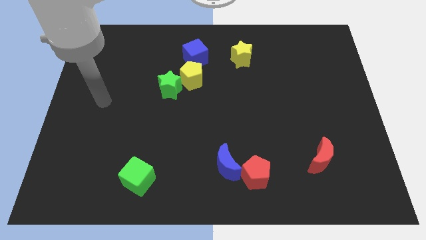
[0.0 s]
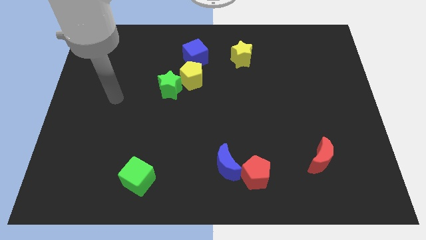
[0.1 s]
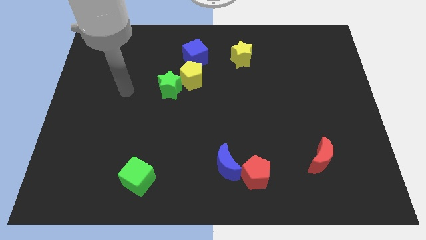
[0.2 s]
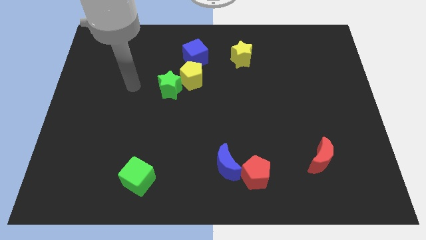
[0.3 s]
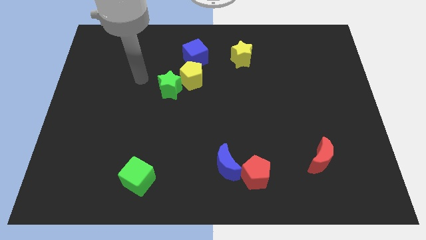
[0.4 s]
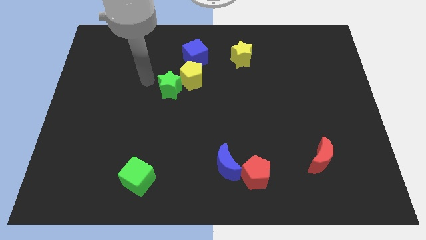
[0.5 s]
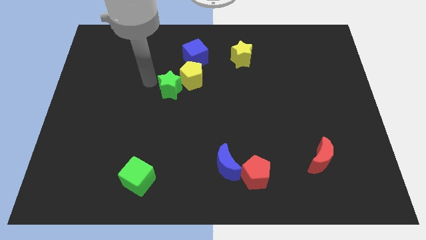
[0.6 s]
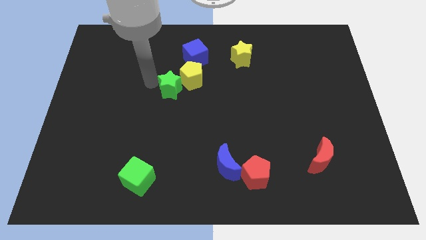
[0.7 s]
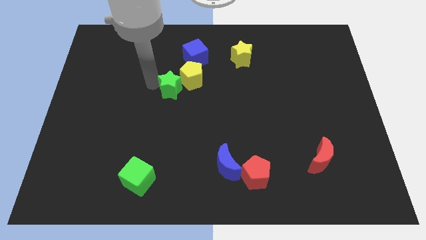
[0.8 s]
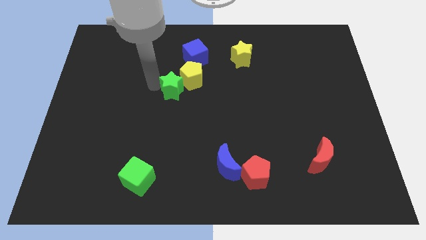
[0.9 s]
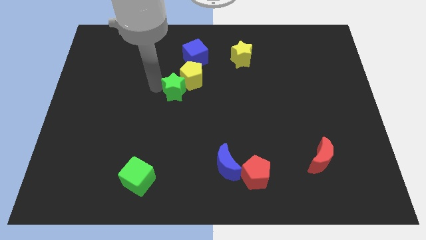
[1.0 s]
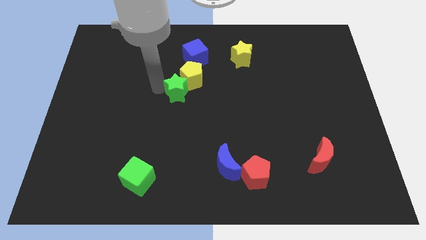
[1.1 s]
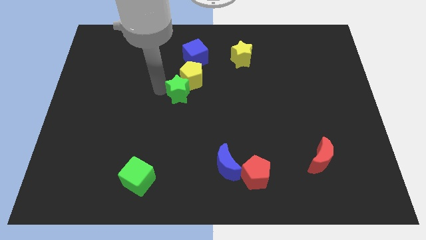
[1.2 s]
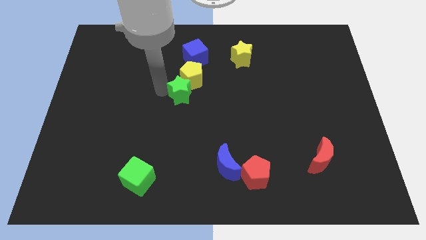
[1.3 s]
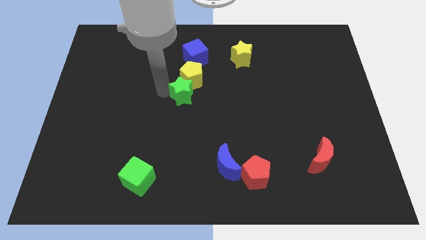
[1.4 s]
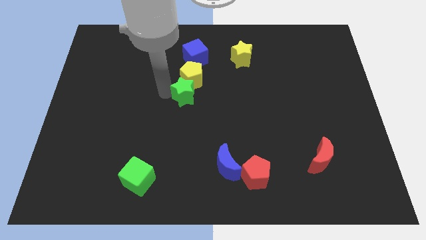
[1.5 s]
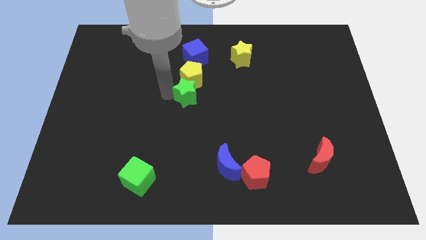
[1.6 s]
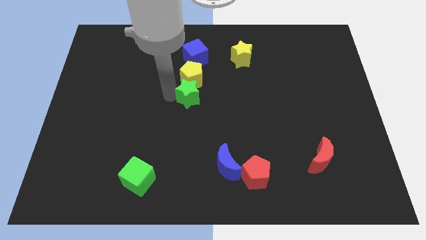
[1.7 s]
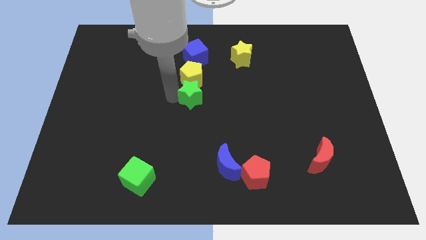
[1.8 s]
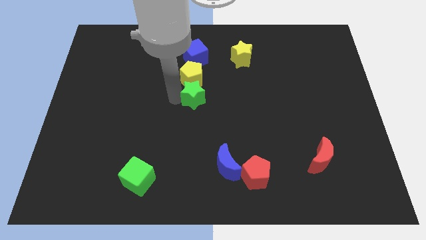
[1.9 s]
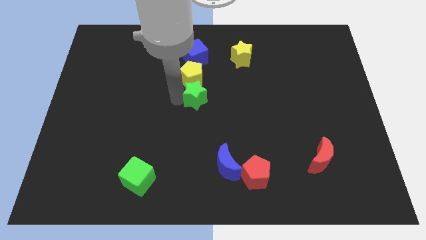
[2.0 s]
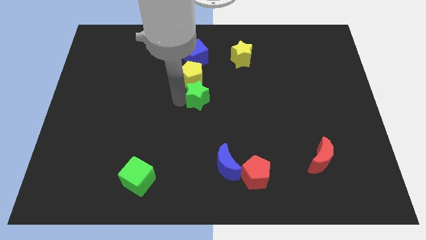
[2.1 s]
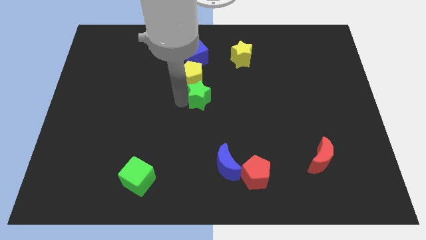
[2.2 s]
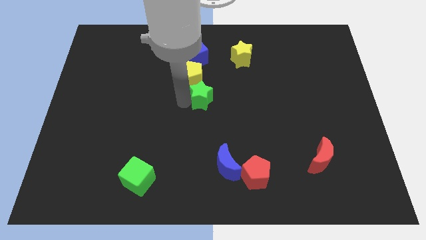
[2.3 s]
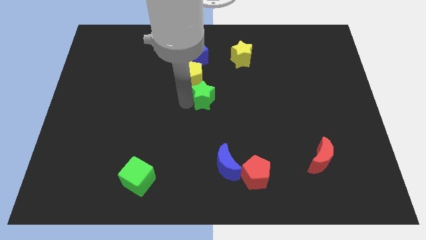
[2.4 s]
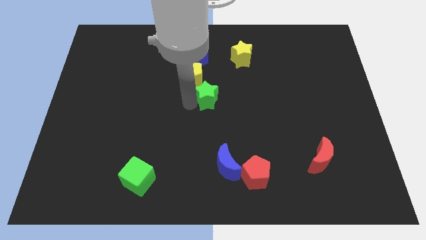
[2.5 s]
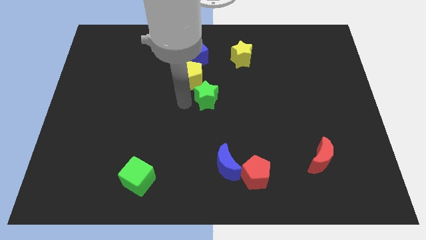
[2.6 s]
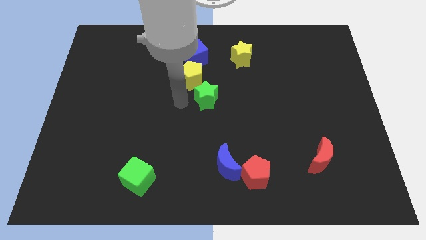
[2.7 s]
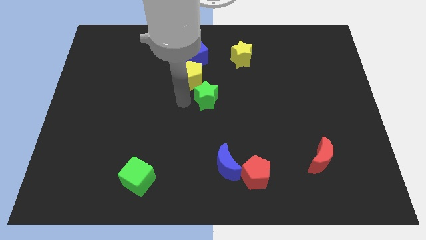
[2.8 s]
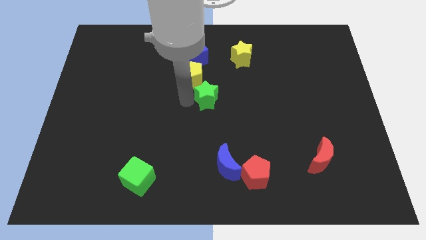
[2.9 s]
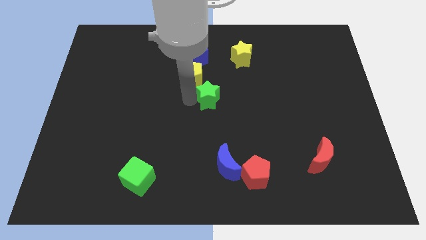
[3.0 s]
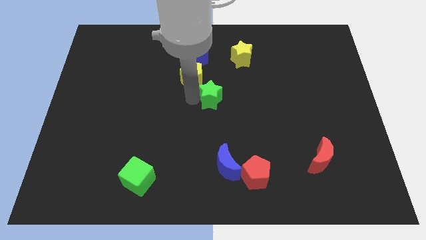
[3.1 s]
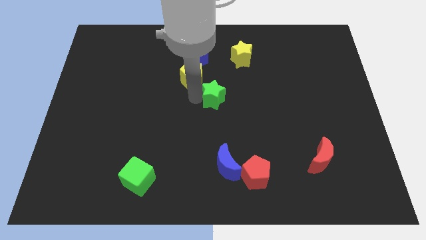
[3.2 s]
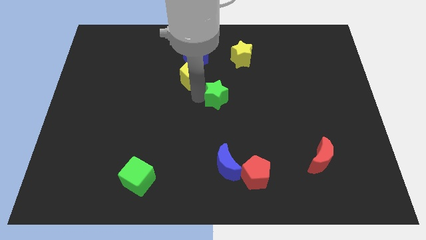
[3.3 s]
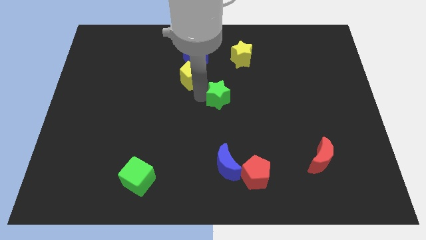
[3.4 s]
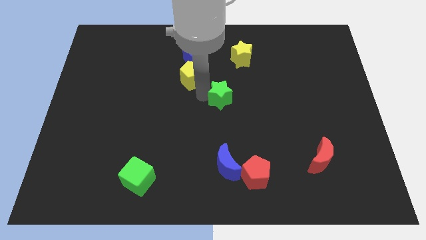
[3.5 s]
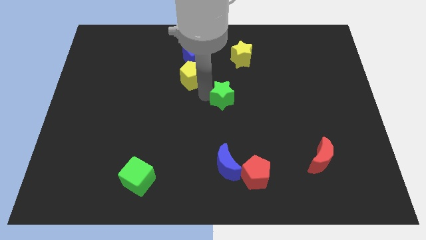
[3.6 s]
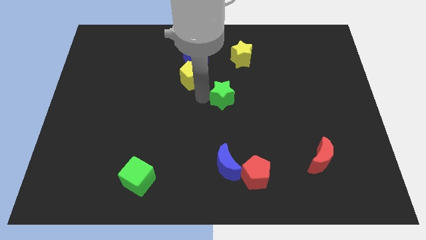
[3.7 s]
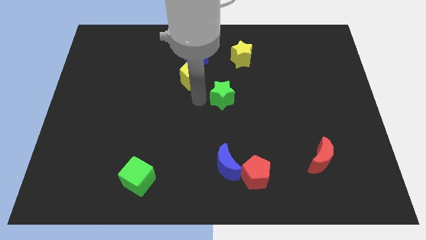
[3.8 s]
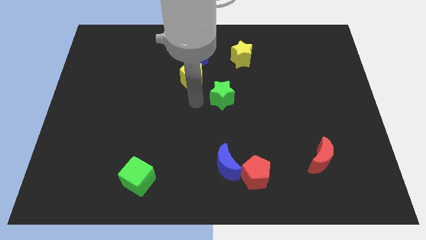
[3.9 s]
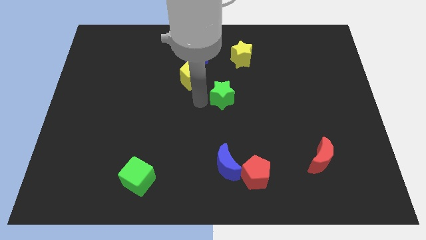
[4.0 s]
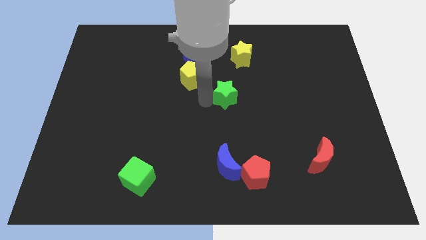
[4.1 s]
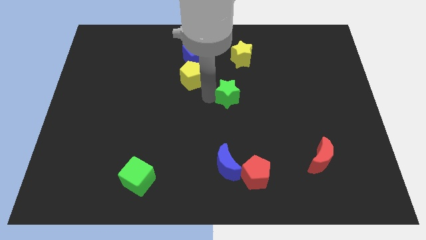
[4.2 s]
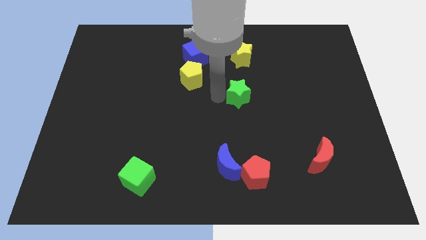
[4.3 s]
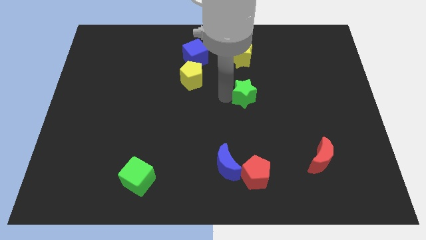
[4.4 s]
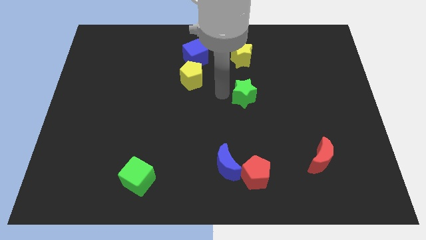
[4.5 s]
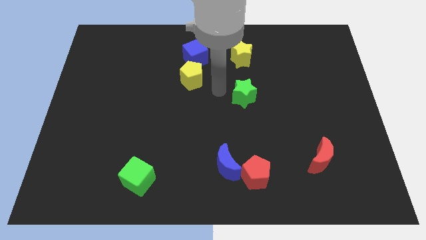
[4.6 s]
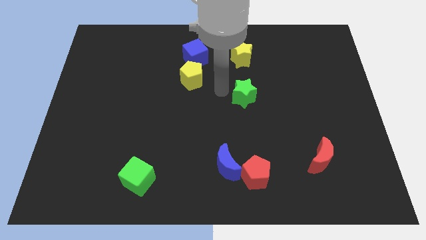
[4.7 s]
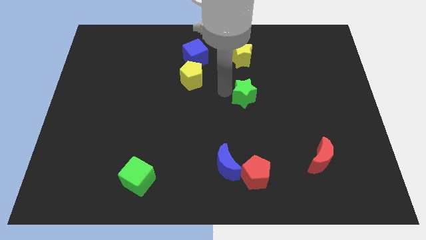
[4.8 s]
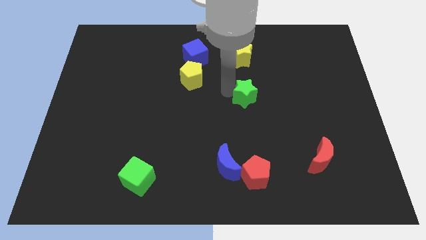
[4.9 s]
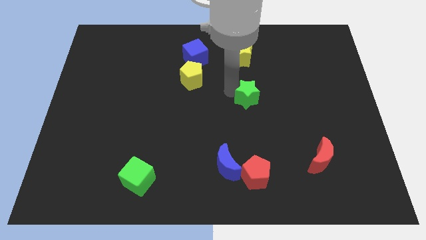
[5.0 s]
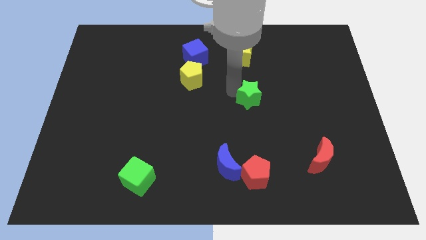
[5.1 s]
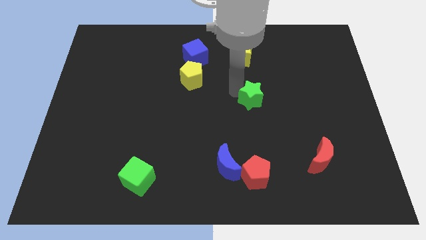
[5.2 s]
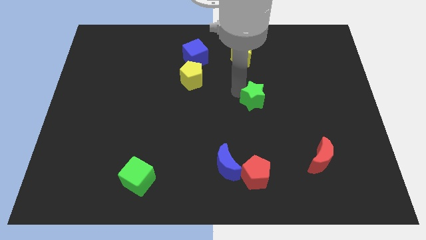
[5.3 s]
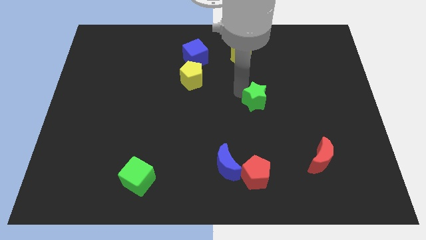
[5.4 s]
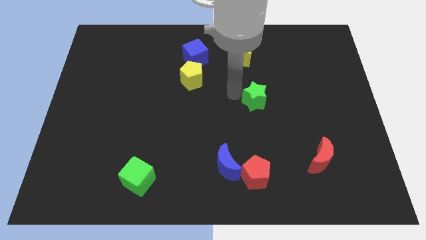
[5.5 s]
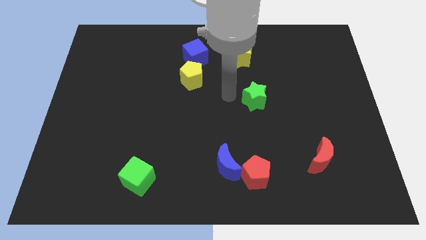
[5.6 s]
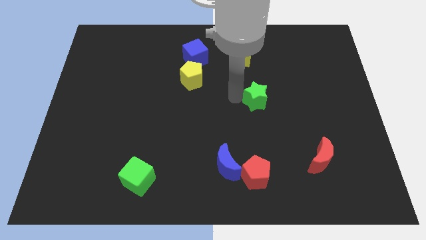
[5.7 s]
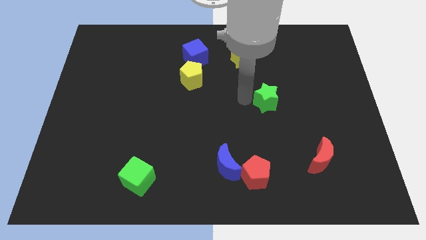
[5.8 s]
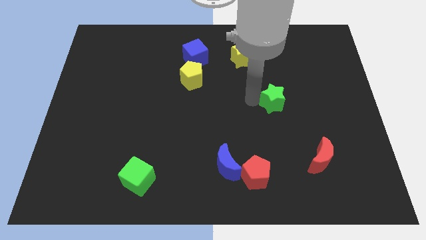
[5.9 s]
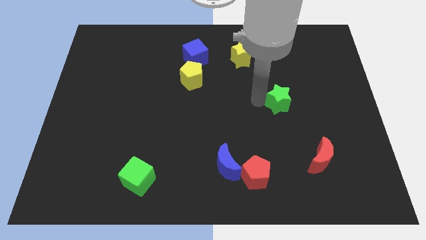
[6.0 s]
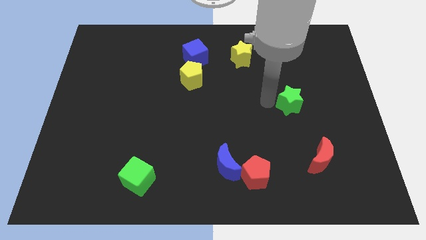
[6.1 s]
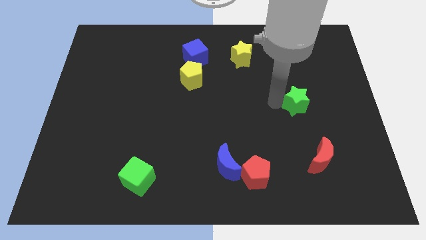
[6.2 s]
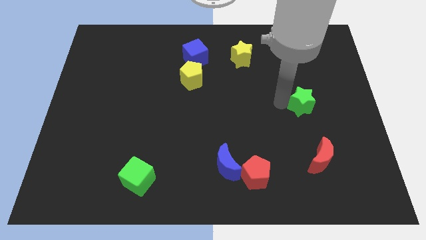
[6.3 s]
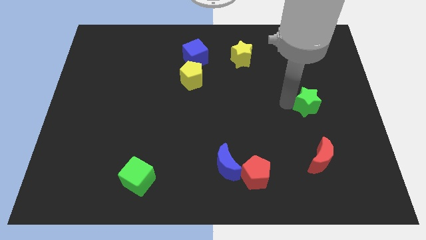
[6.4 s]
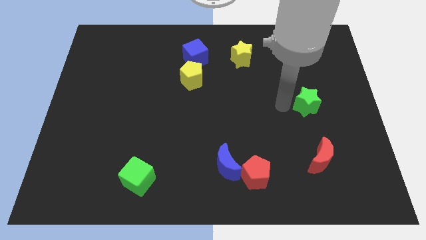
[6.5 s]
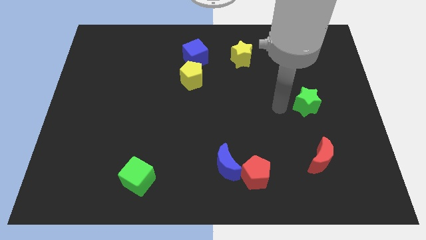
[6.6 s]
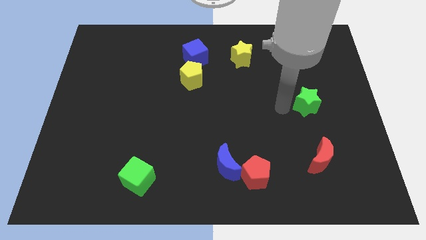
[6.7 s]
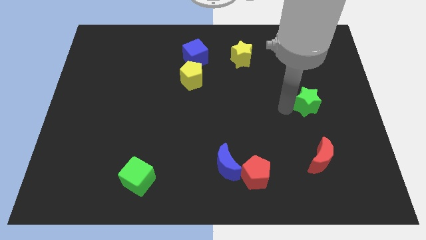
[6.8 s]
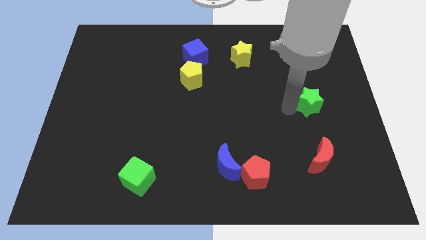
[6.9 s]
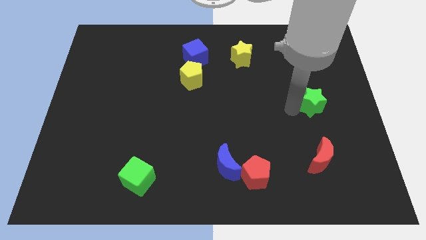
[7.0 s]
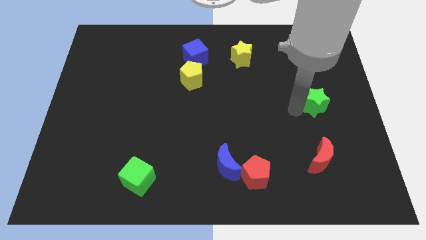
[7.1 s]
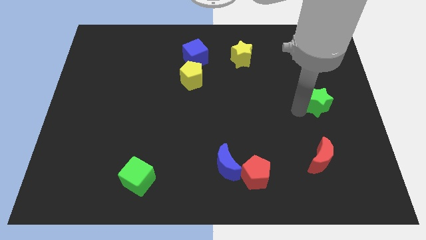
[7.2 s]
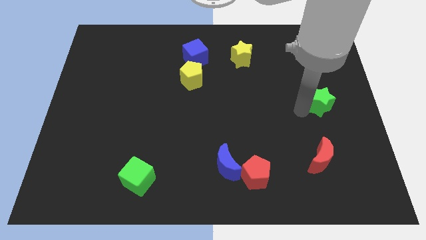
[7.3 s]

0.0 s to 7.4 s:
put the green star to the center right

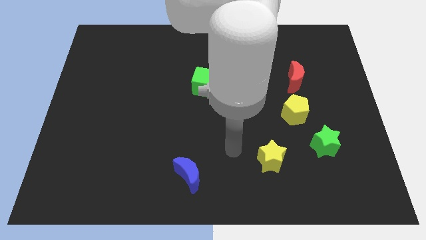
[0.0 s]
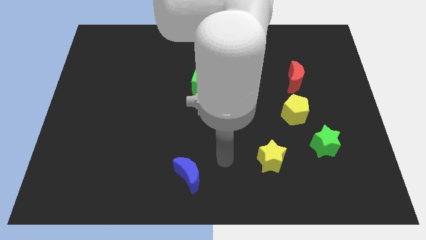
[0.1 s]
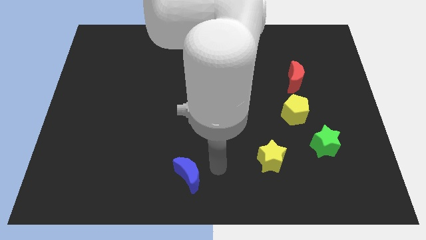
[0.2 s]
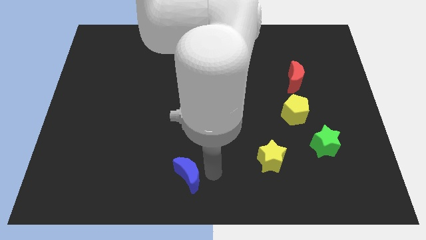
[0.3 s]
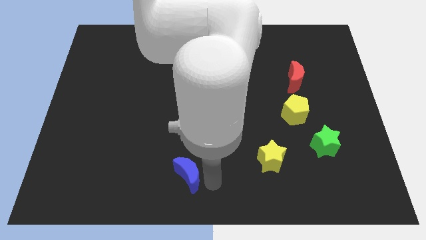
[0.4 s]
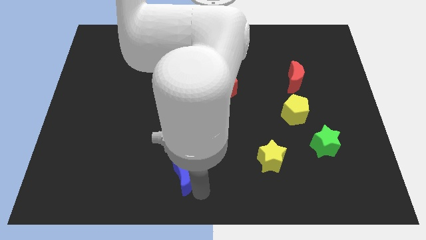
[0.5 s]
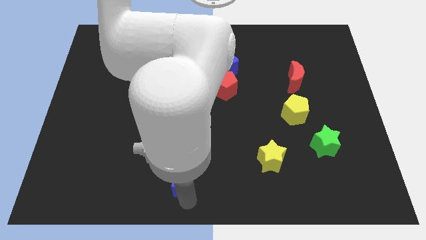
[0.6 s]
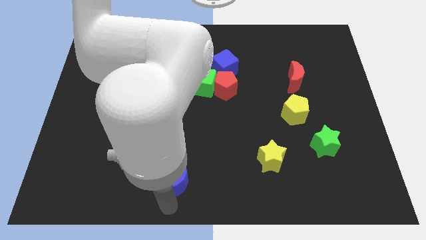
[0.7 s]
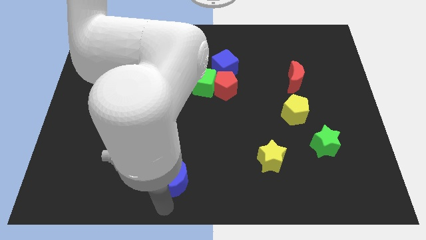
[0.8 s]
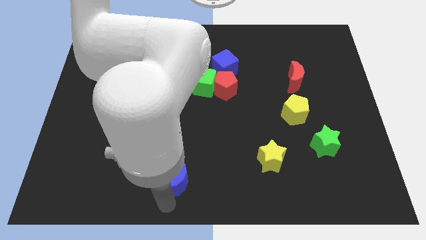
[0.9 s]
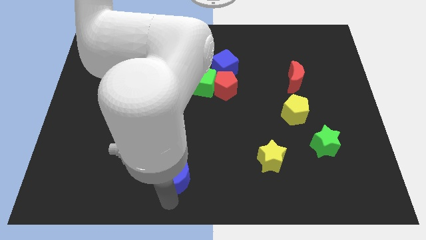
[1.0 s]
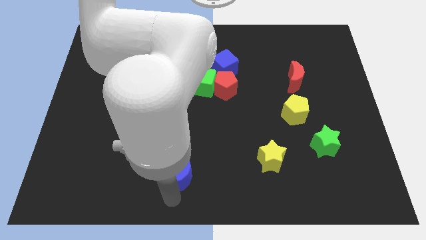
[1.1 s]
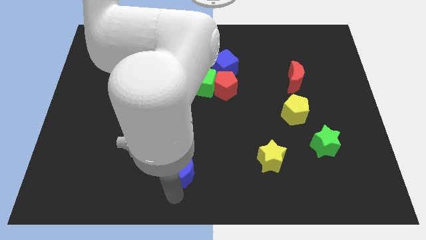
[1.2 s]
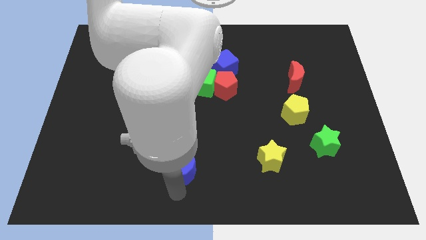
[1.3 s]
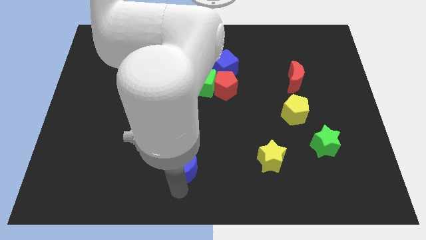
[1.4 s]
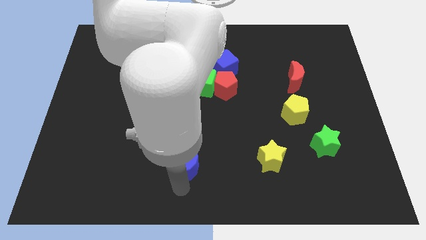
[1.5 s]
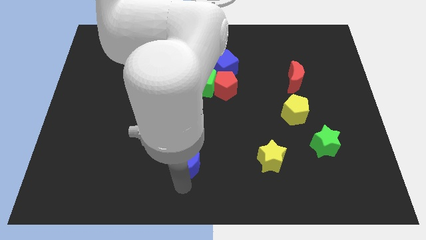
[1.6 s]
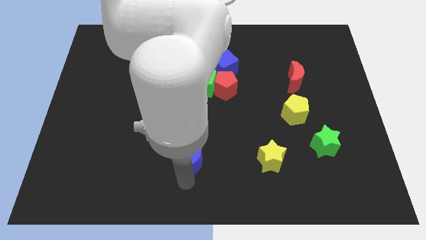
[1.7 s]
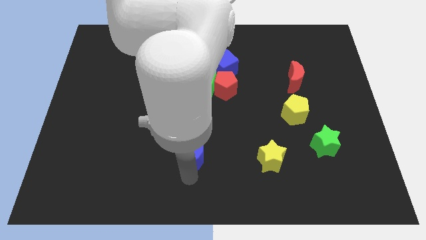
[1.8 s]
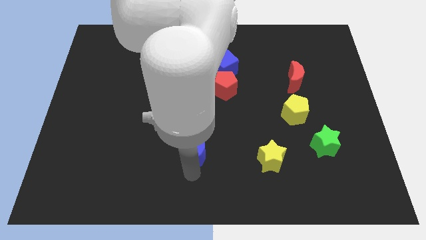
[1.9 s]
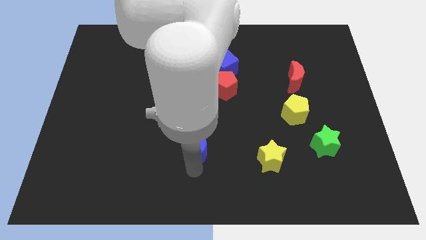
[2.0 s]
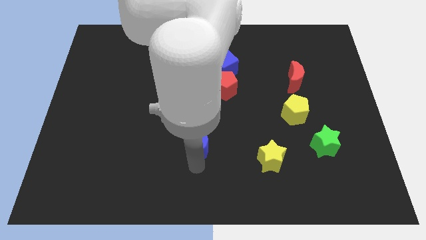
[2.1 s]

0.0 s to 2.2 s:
move the blue moon to the middle
